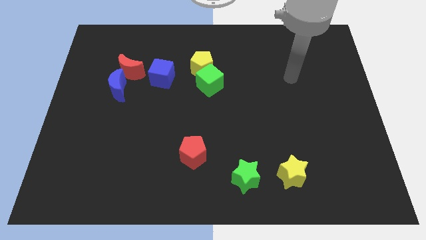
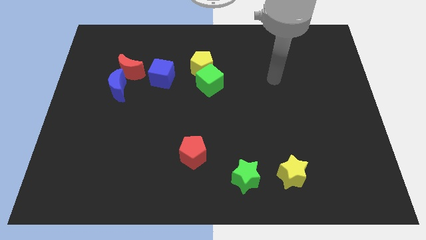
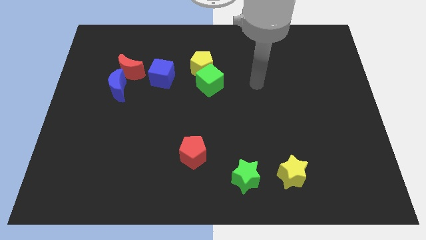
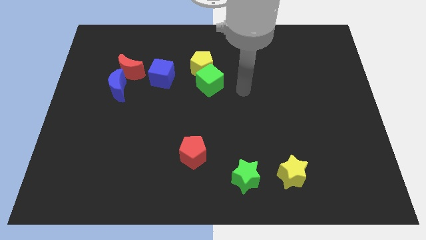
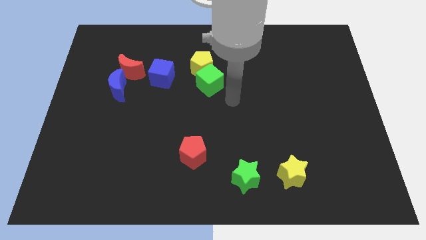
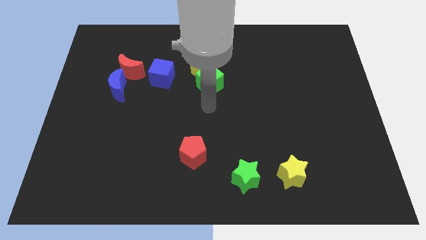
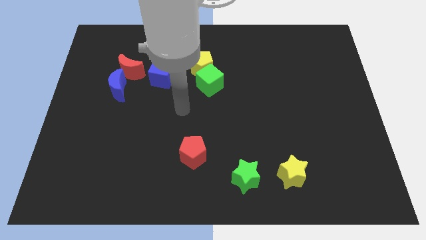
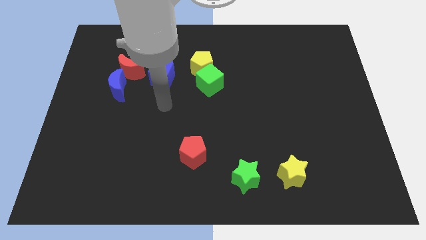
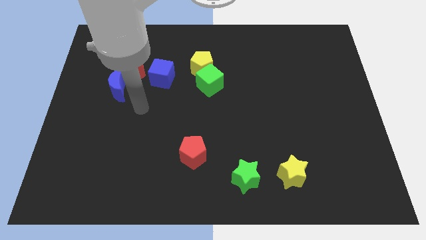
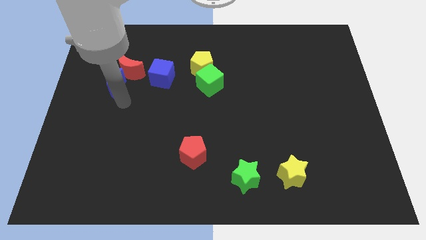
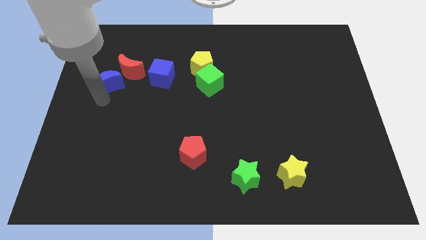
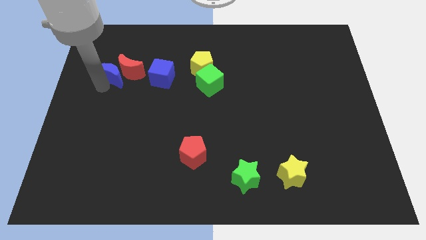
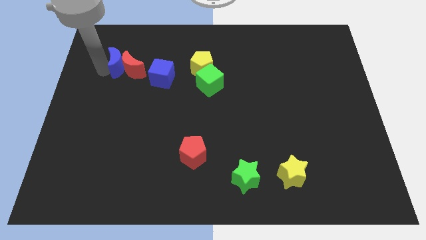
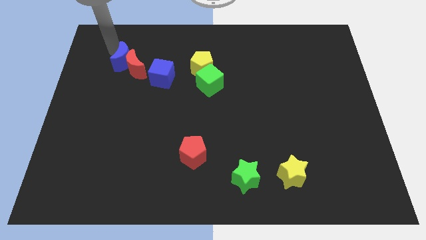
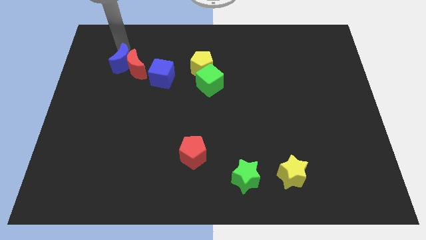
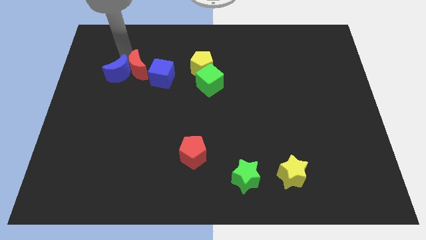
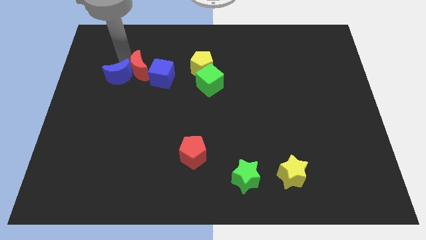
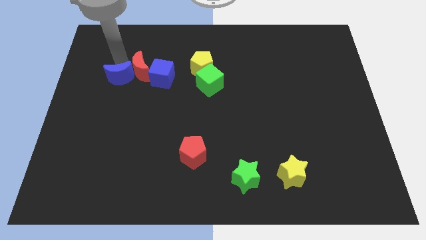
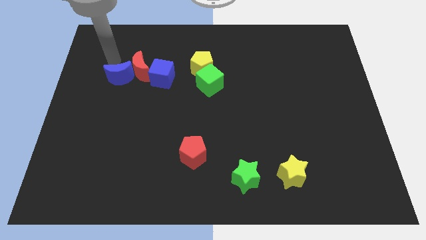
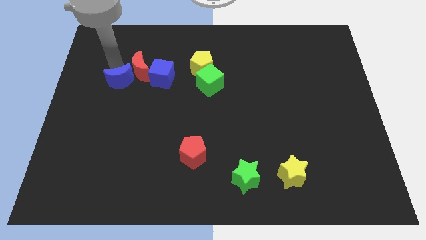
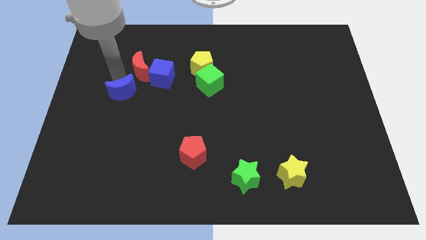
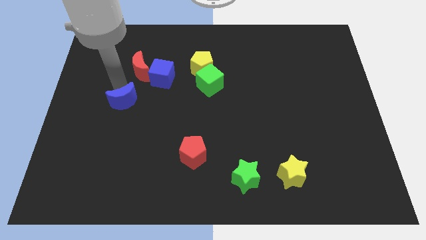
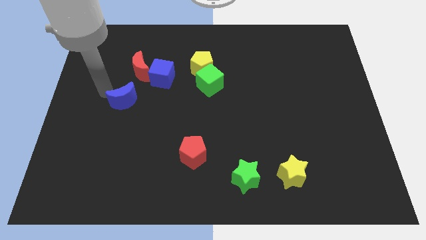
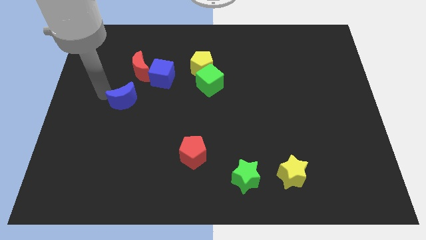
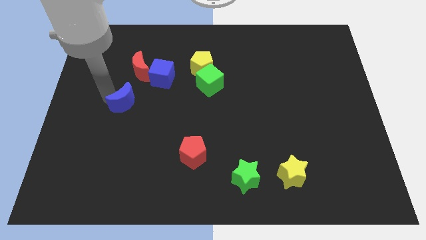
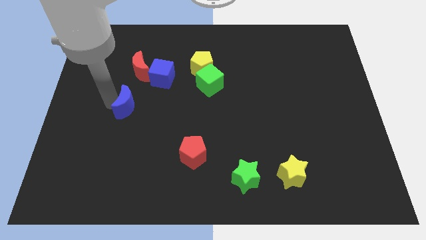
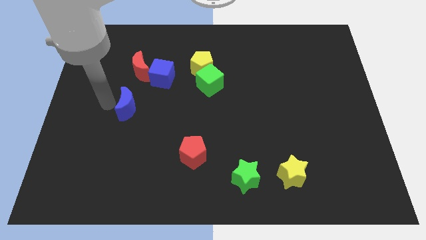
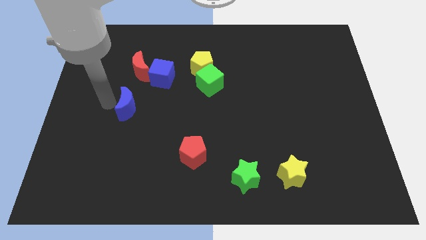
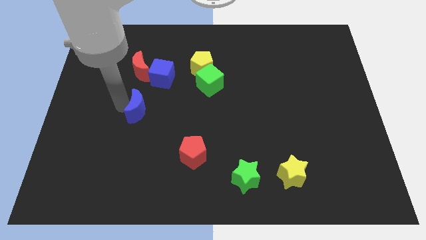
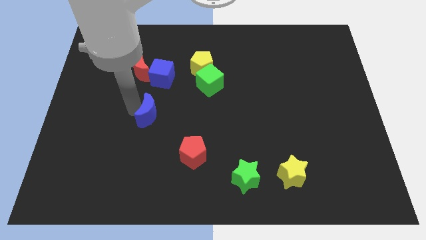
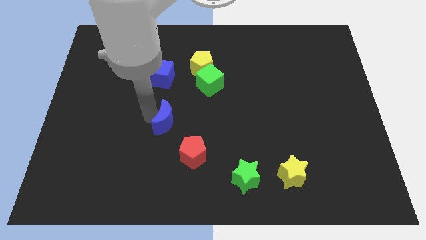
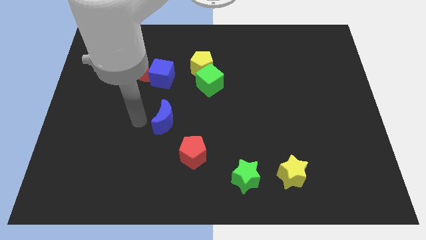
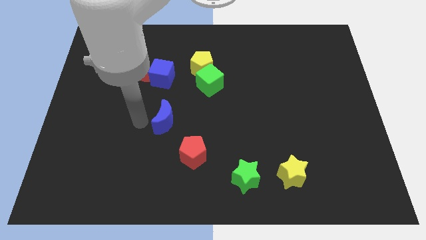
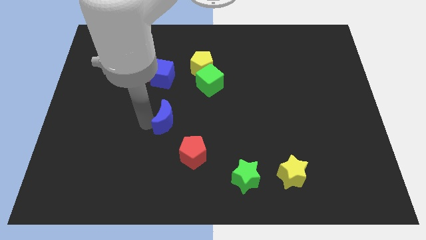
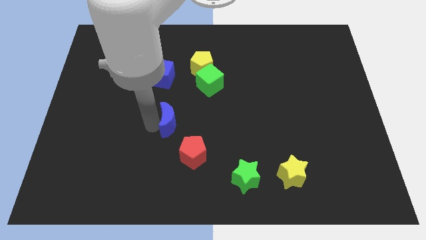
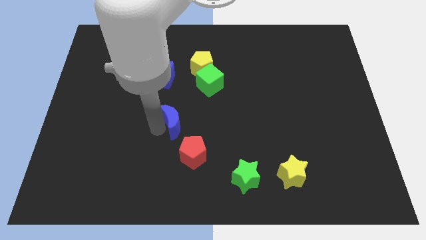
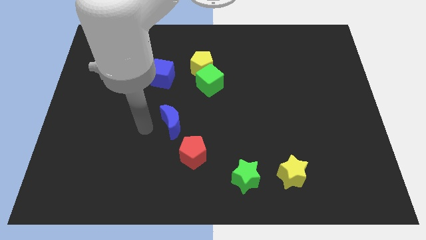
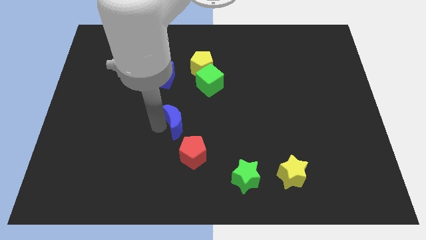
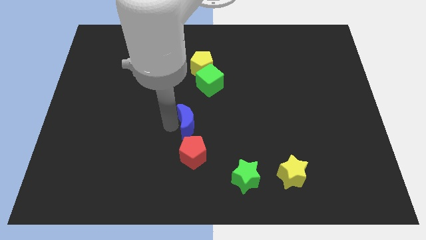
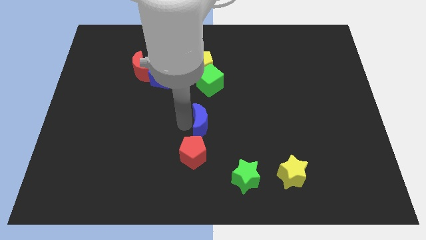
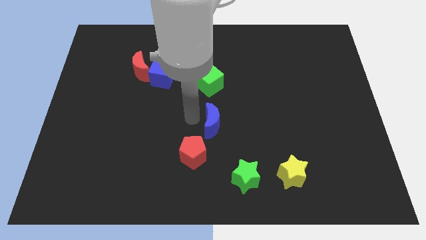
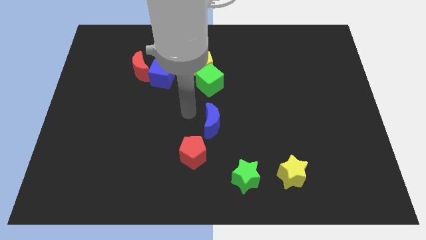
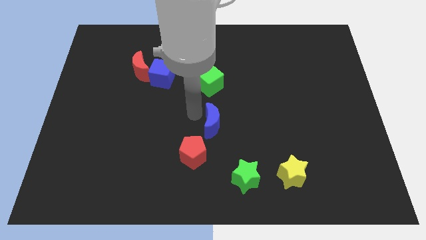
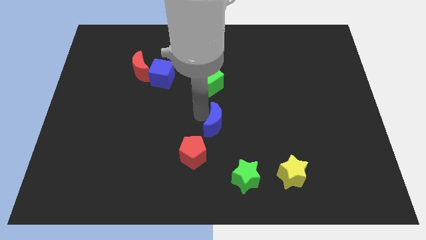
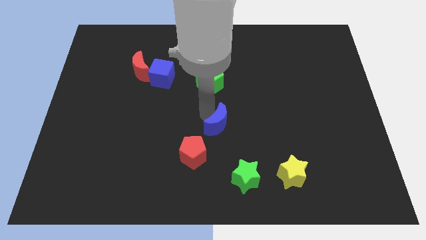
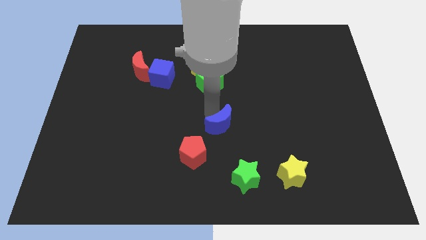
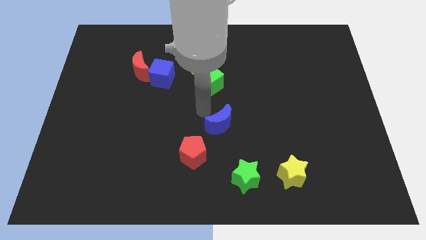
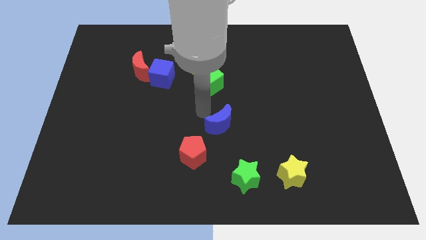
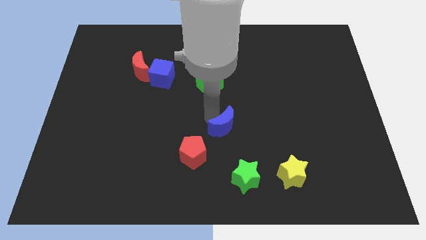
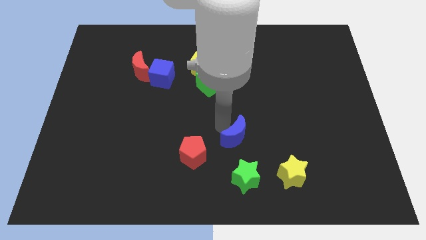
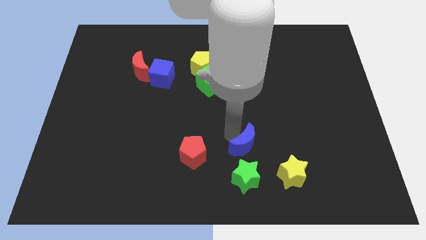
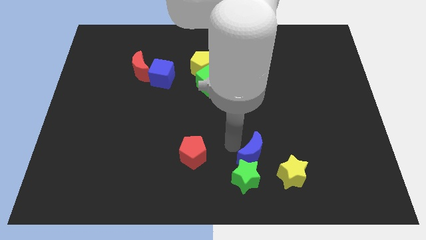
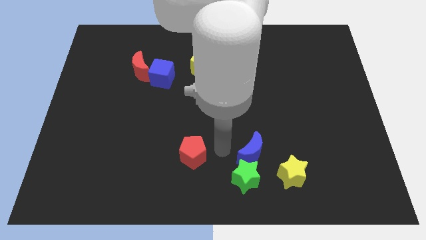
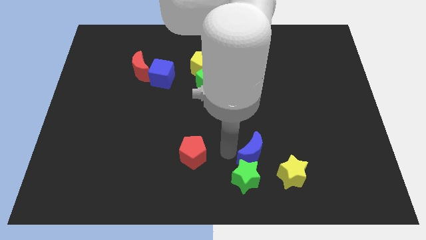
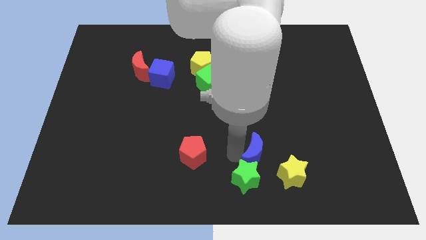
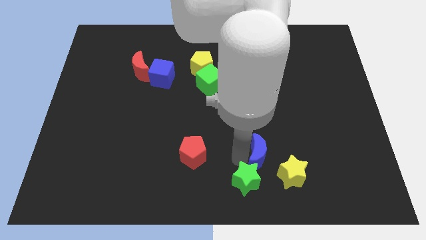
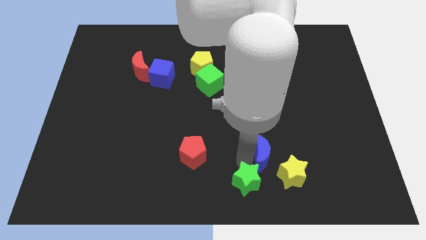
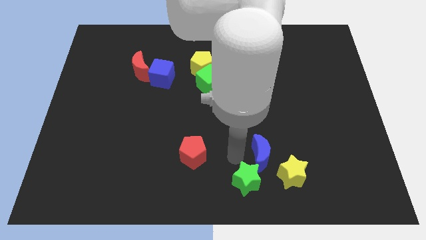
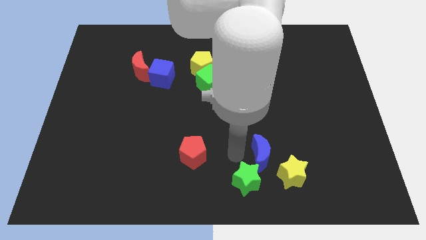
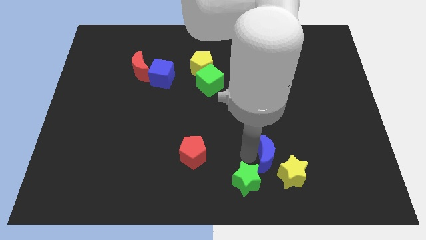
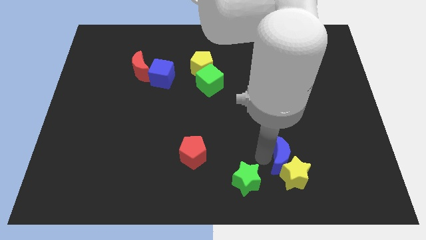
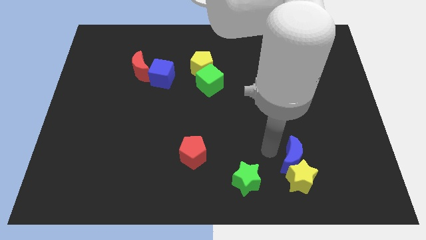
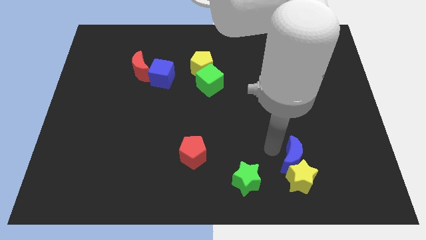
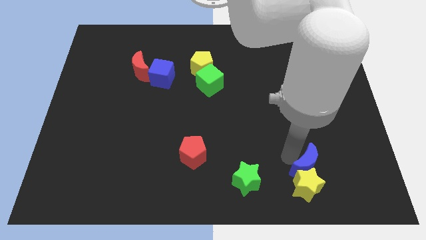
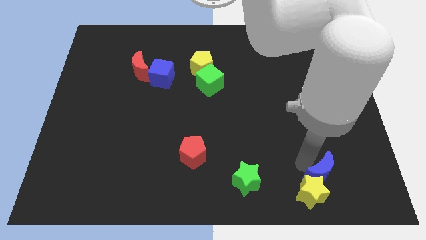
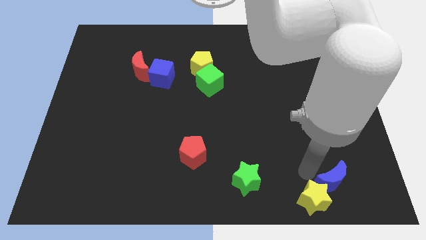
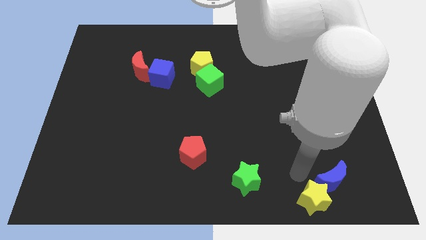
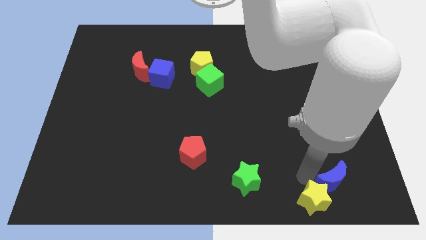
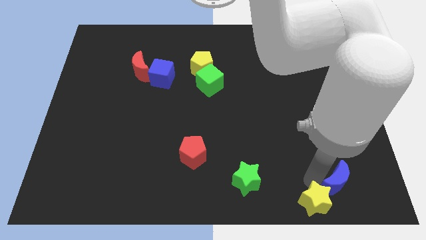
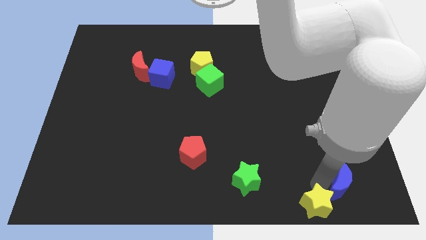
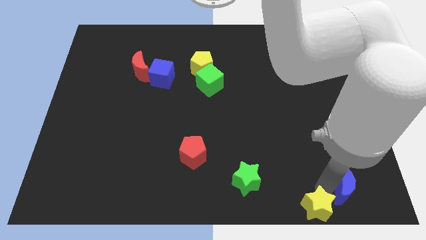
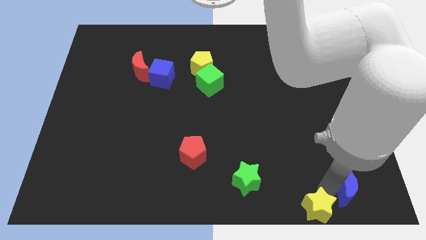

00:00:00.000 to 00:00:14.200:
put the blue moon to the bottom right corner
